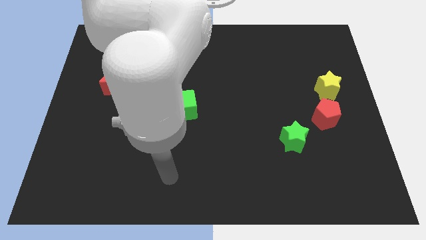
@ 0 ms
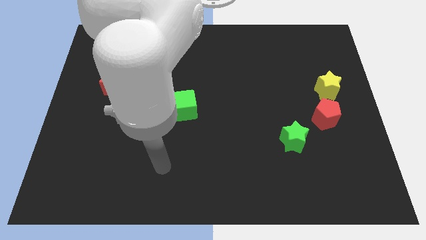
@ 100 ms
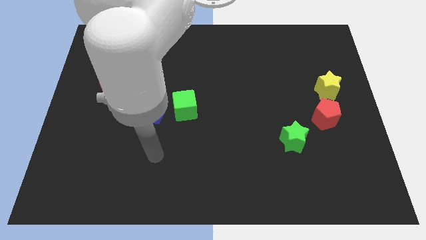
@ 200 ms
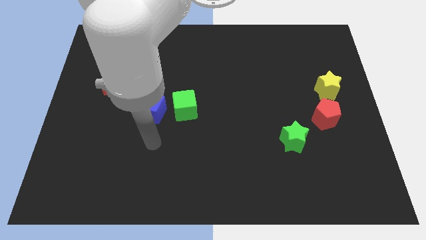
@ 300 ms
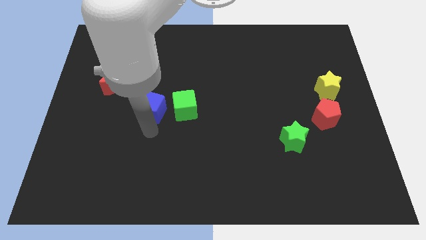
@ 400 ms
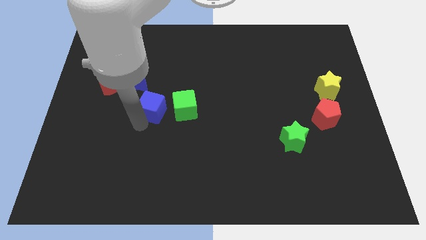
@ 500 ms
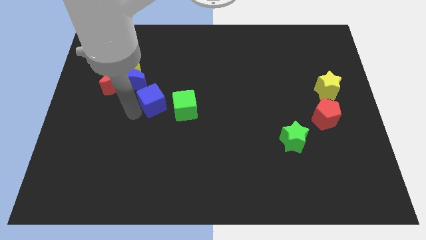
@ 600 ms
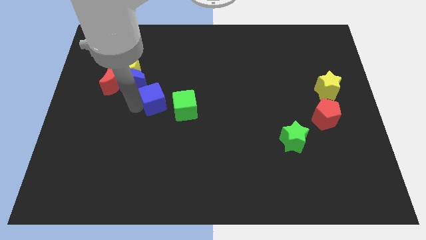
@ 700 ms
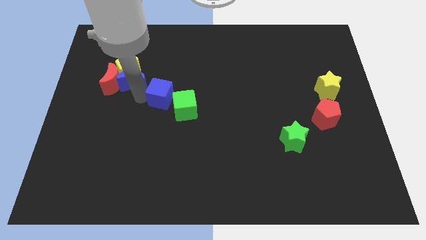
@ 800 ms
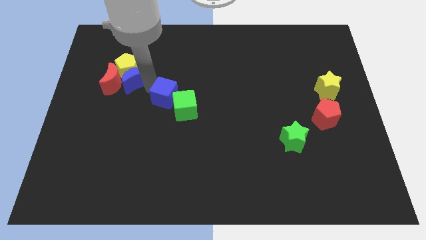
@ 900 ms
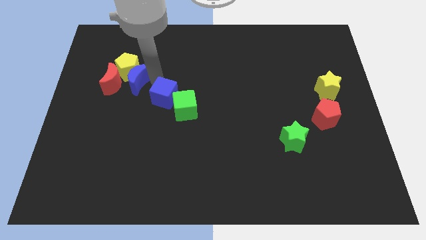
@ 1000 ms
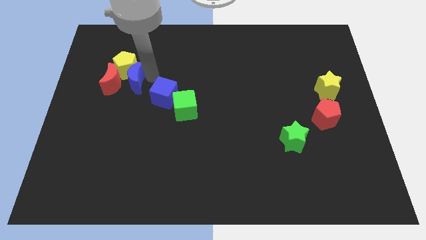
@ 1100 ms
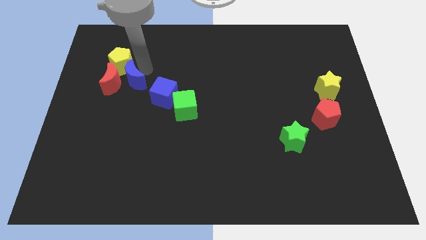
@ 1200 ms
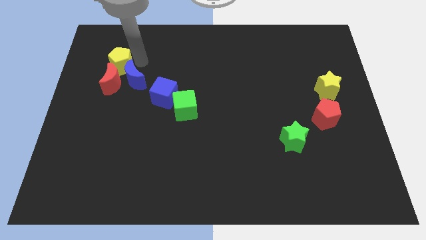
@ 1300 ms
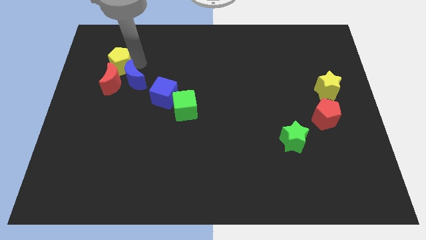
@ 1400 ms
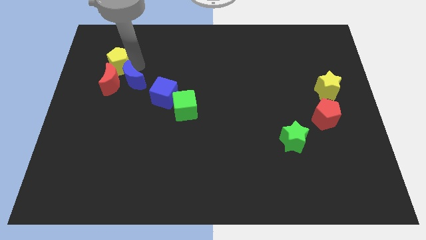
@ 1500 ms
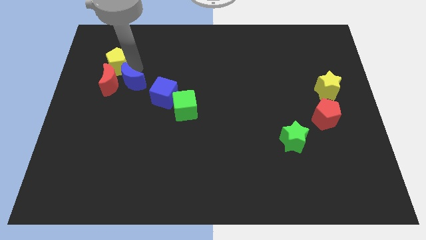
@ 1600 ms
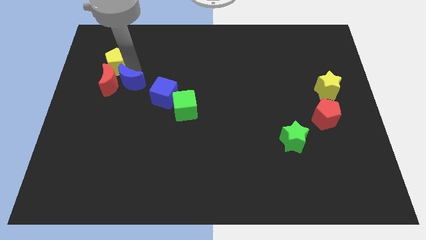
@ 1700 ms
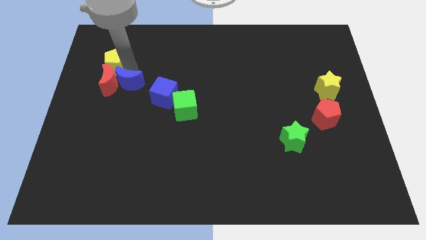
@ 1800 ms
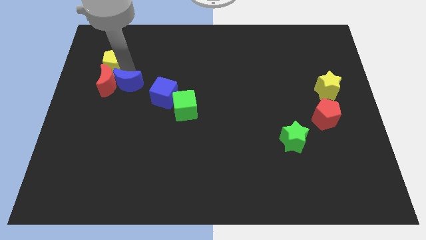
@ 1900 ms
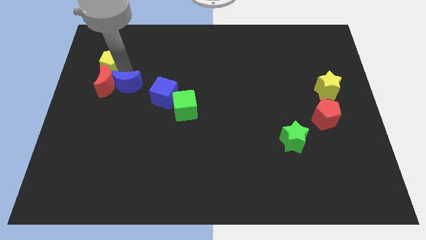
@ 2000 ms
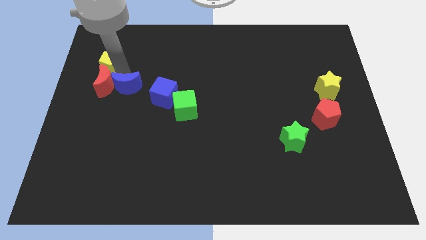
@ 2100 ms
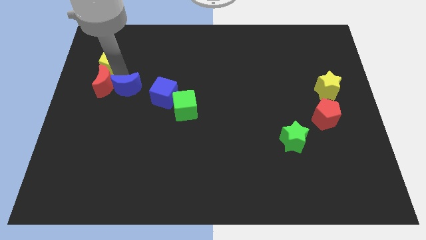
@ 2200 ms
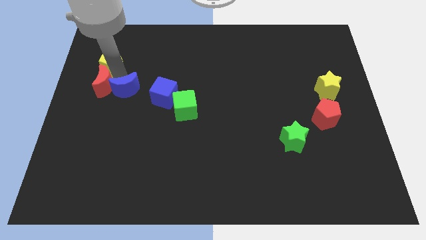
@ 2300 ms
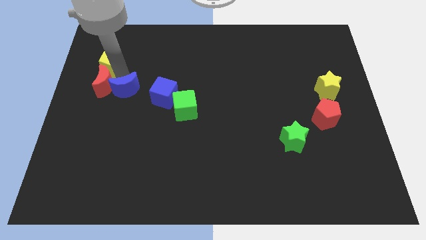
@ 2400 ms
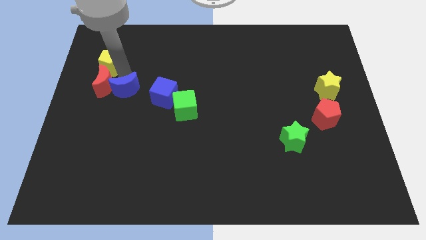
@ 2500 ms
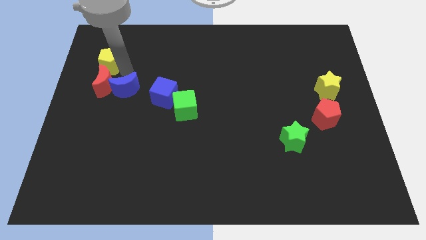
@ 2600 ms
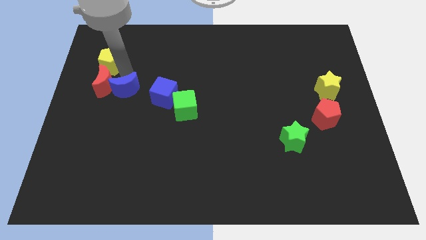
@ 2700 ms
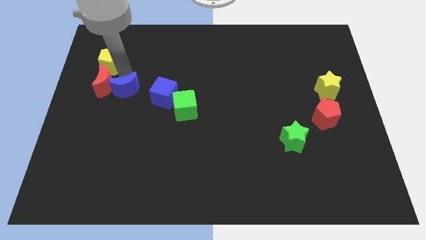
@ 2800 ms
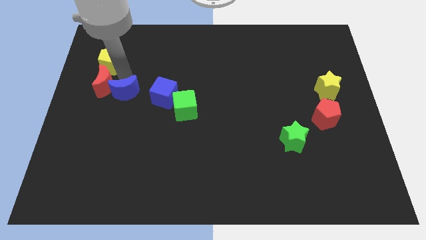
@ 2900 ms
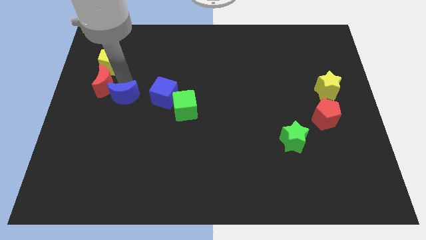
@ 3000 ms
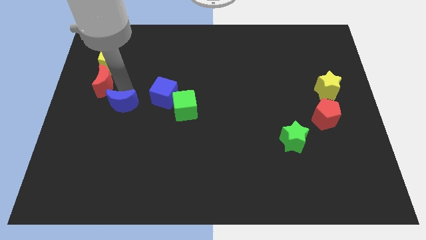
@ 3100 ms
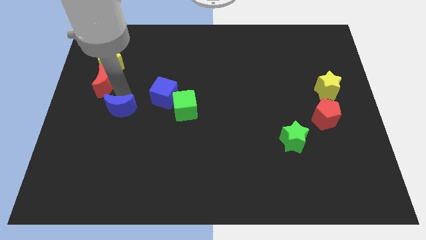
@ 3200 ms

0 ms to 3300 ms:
slide the blue moon down somewhat

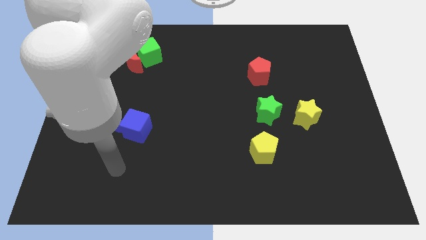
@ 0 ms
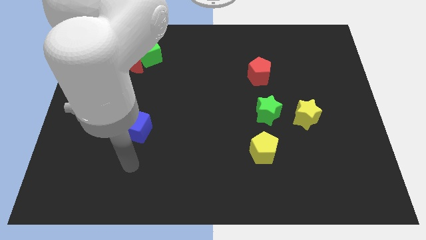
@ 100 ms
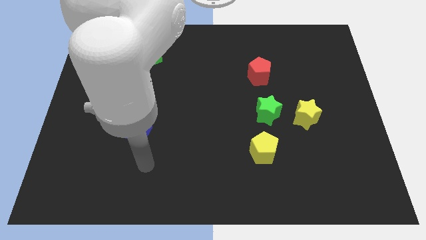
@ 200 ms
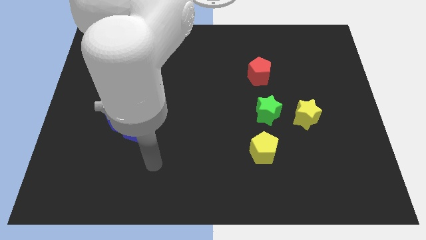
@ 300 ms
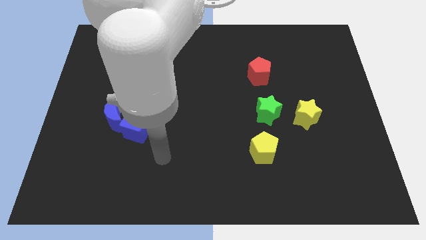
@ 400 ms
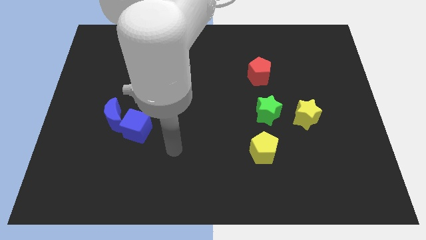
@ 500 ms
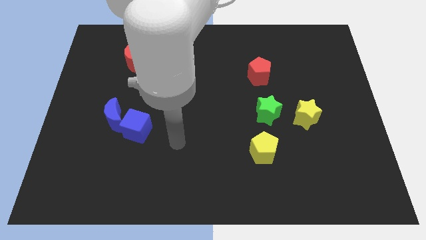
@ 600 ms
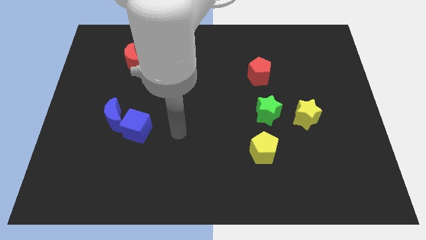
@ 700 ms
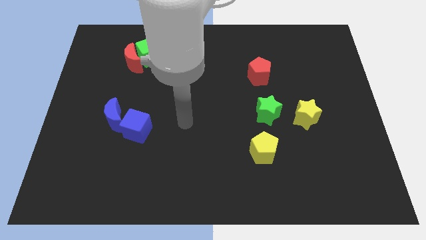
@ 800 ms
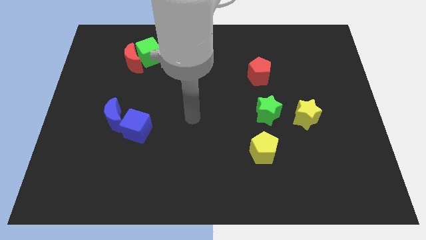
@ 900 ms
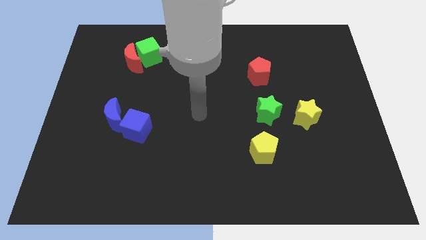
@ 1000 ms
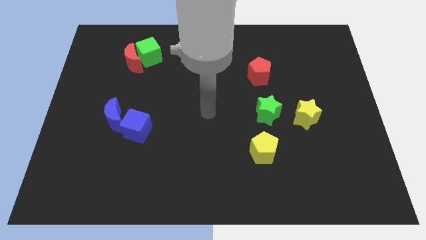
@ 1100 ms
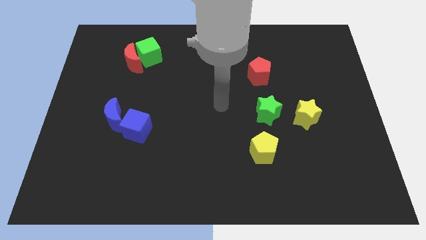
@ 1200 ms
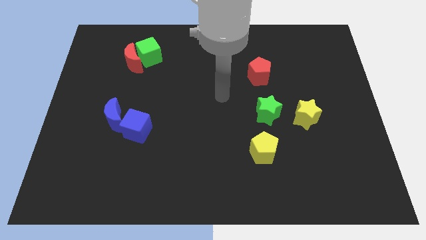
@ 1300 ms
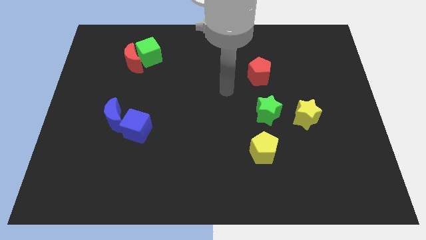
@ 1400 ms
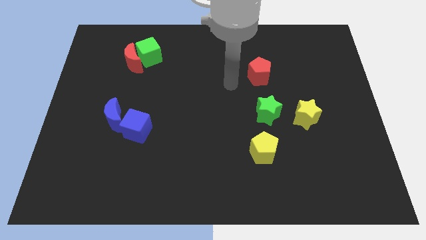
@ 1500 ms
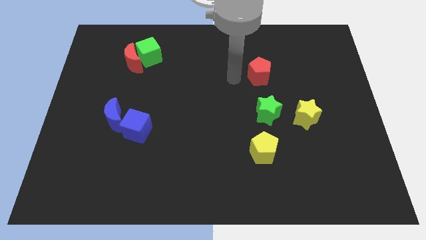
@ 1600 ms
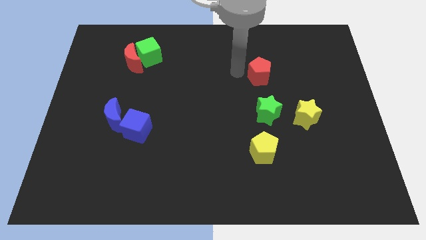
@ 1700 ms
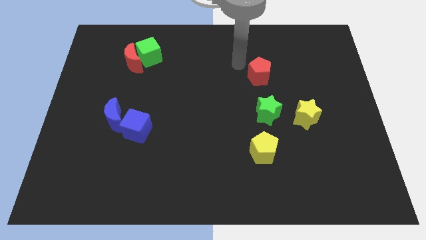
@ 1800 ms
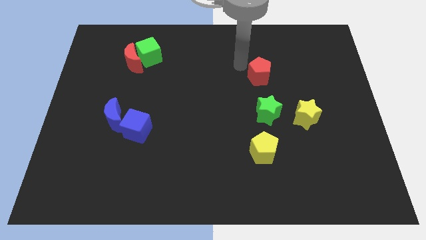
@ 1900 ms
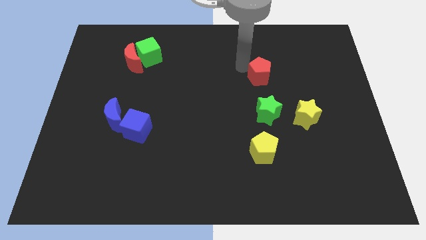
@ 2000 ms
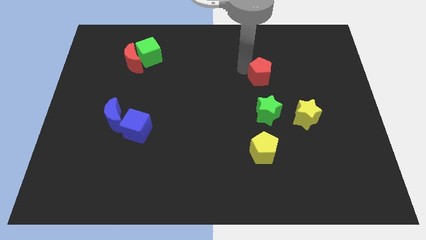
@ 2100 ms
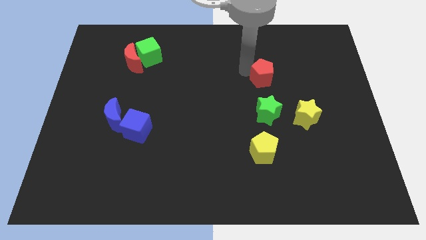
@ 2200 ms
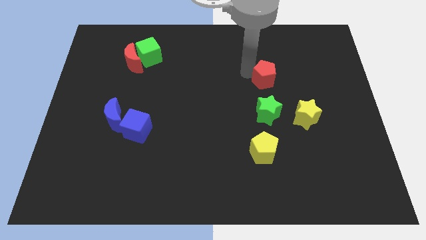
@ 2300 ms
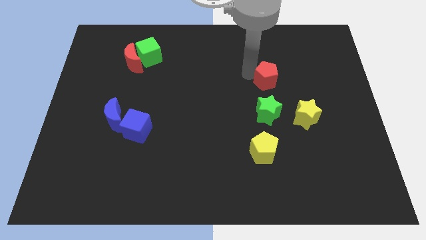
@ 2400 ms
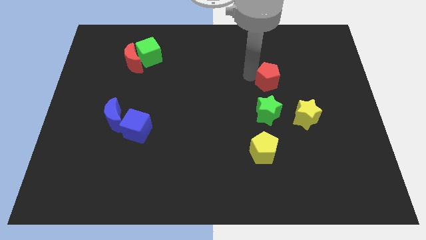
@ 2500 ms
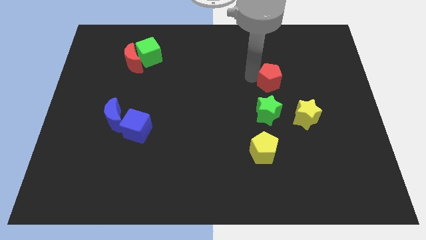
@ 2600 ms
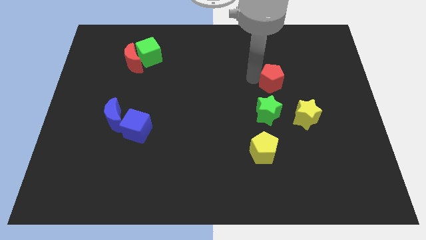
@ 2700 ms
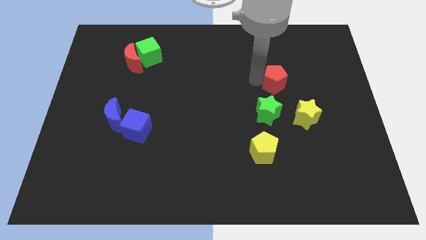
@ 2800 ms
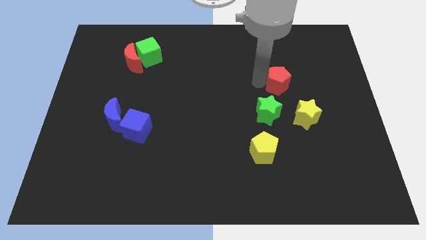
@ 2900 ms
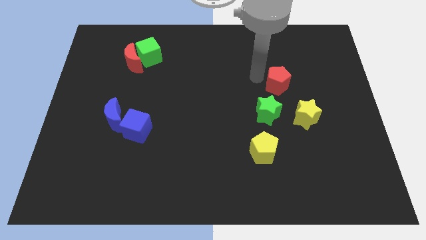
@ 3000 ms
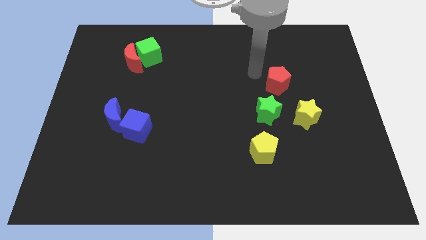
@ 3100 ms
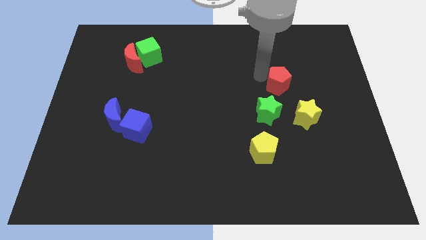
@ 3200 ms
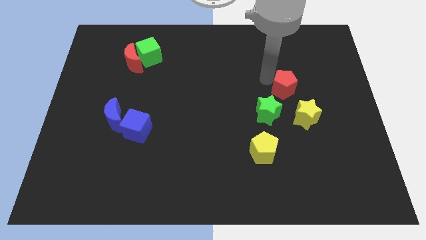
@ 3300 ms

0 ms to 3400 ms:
slide the red pentagon downwards and right diagonally slightly

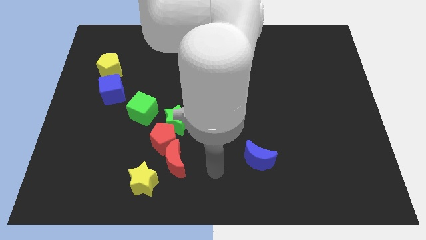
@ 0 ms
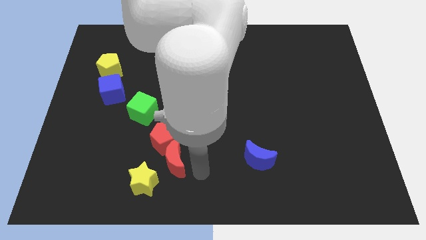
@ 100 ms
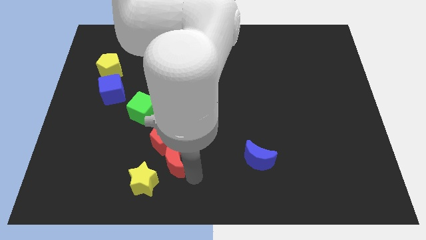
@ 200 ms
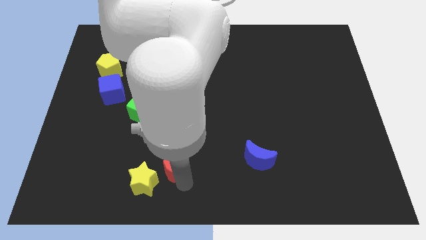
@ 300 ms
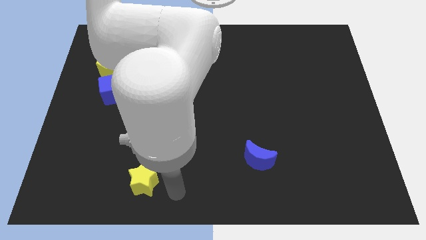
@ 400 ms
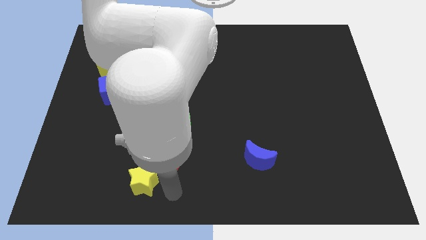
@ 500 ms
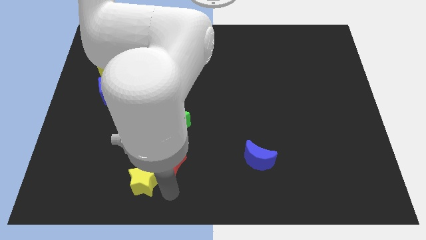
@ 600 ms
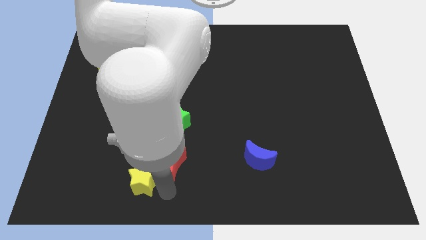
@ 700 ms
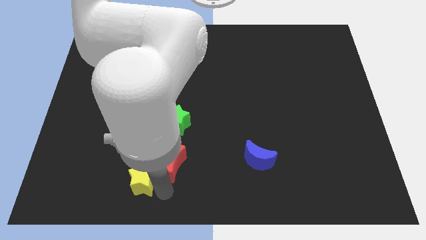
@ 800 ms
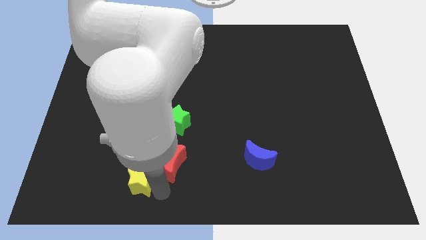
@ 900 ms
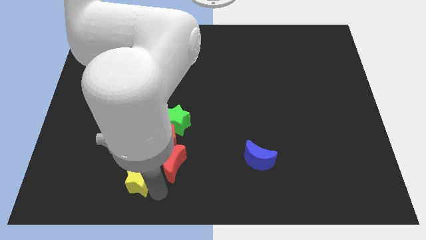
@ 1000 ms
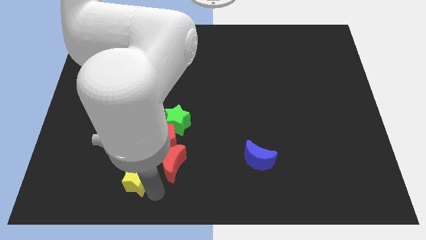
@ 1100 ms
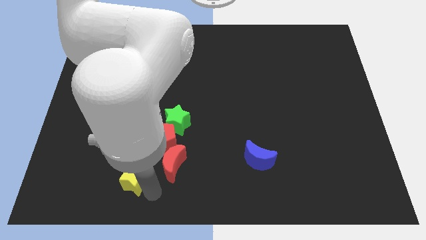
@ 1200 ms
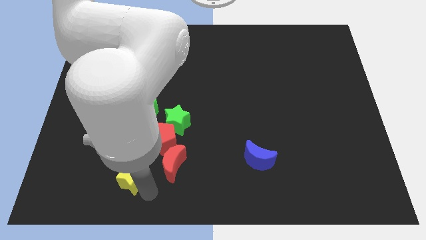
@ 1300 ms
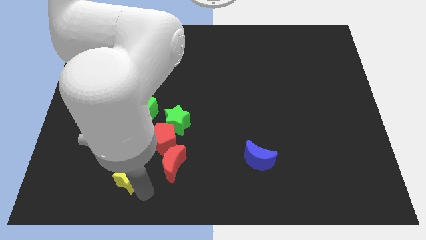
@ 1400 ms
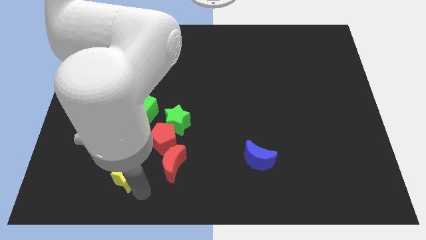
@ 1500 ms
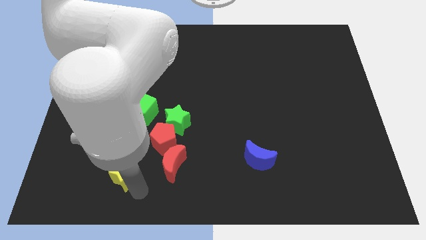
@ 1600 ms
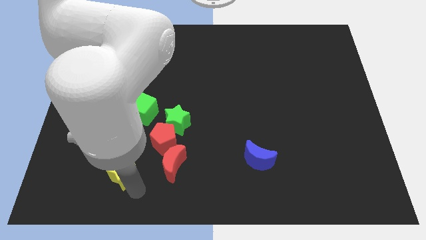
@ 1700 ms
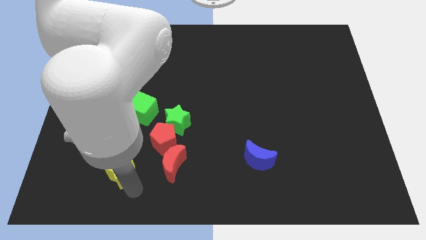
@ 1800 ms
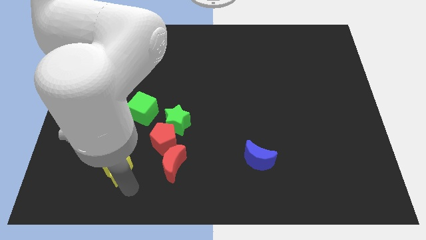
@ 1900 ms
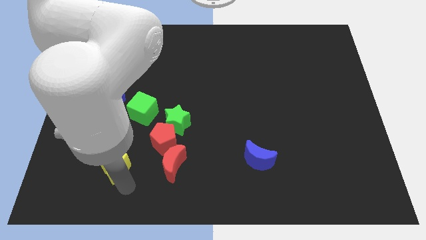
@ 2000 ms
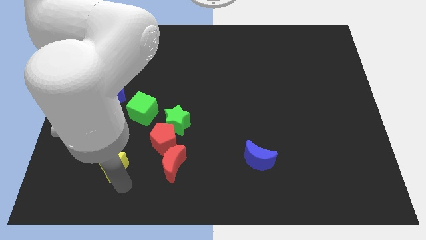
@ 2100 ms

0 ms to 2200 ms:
slide the yellow star a little up and to the left
